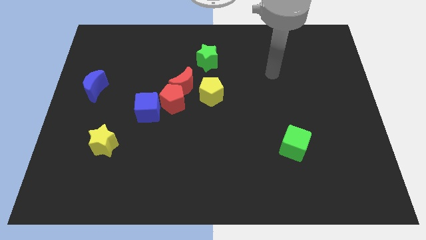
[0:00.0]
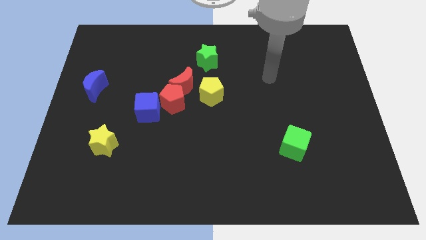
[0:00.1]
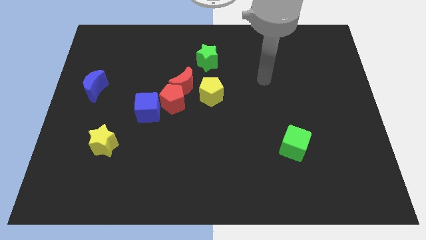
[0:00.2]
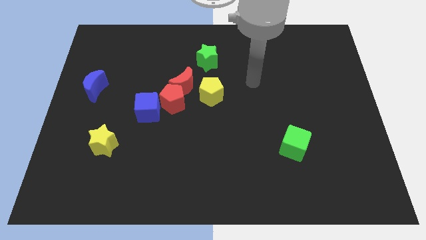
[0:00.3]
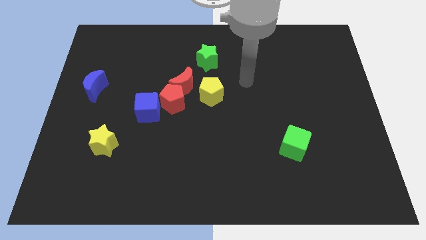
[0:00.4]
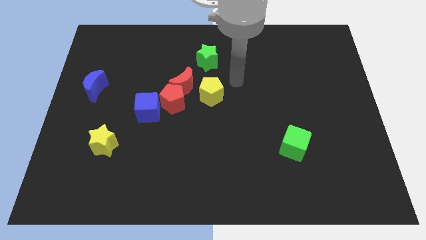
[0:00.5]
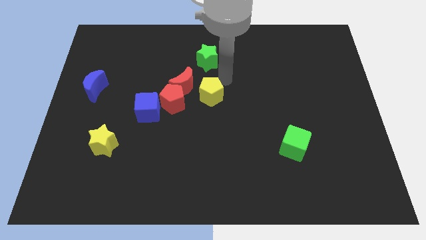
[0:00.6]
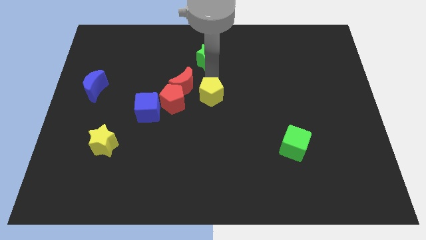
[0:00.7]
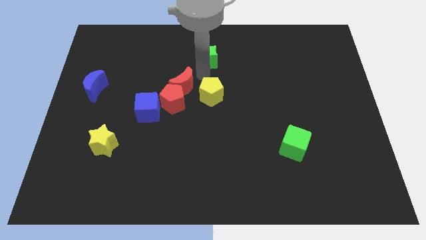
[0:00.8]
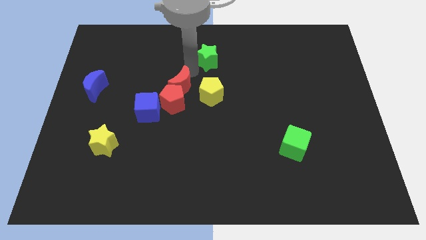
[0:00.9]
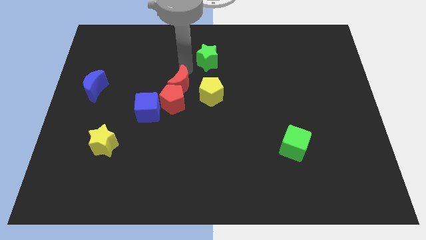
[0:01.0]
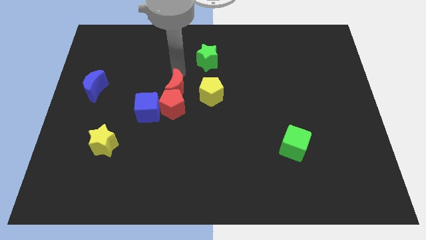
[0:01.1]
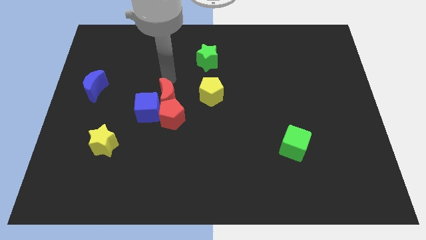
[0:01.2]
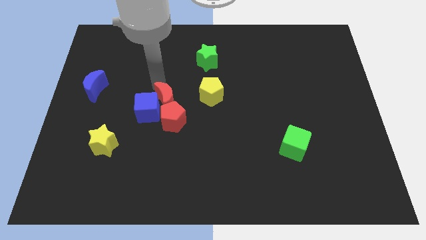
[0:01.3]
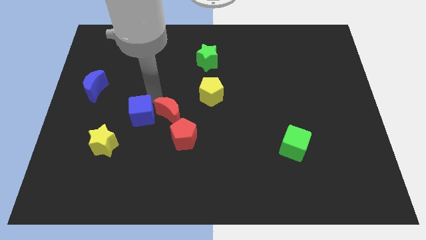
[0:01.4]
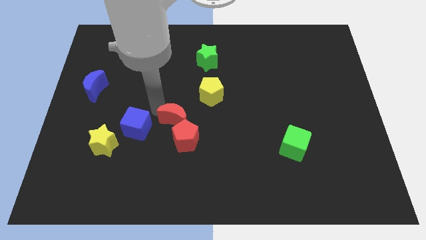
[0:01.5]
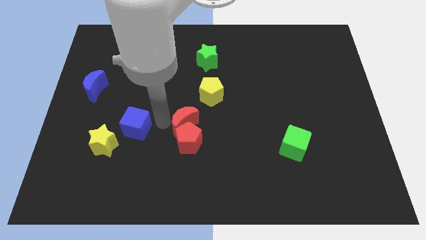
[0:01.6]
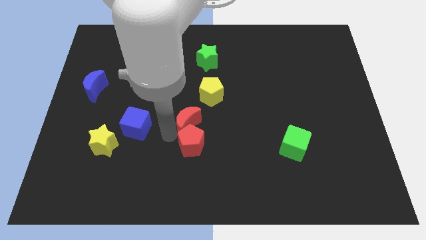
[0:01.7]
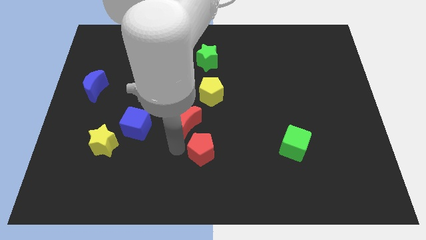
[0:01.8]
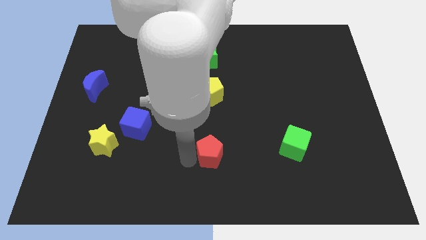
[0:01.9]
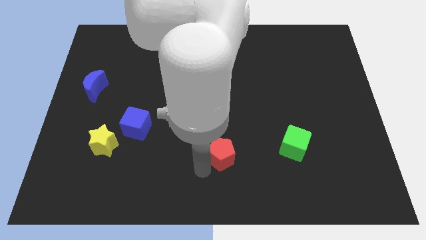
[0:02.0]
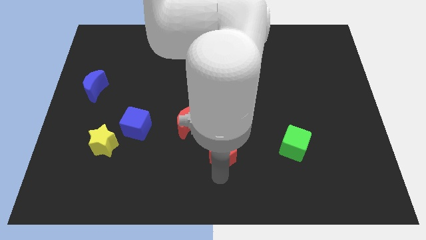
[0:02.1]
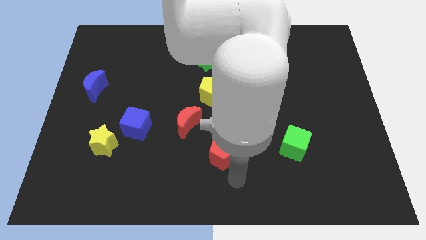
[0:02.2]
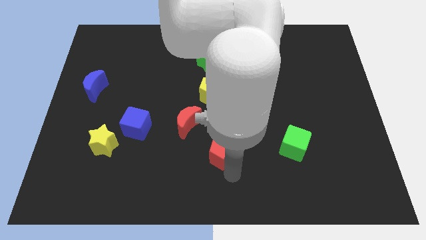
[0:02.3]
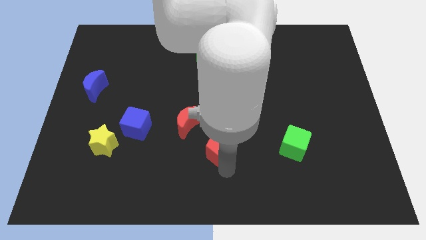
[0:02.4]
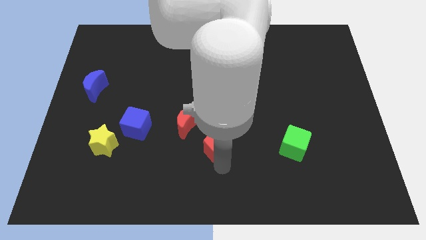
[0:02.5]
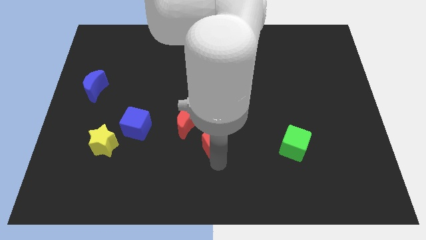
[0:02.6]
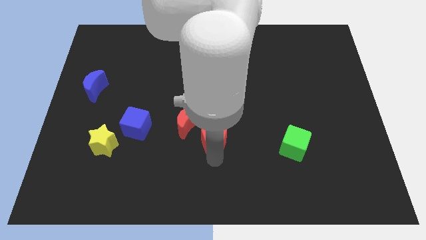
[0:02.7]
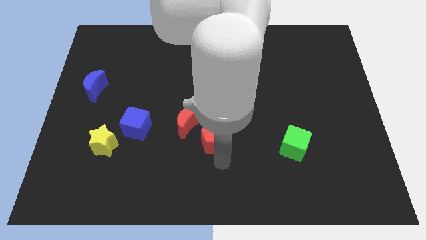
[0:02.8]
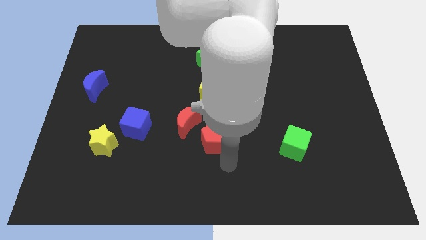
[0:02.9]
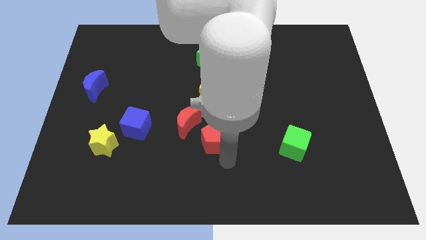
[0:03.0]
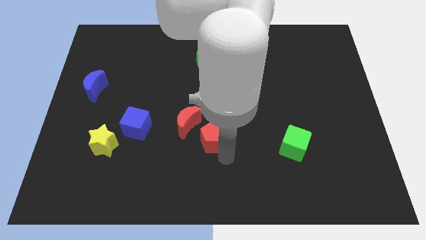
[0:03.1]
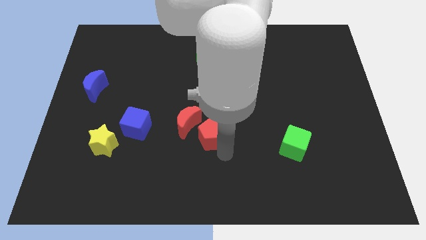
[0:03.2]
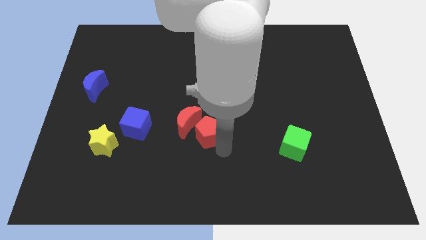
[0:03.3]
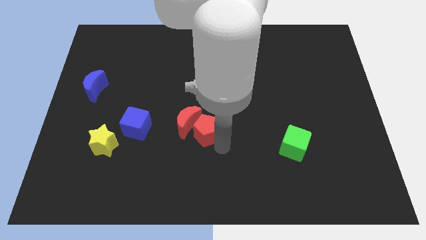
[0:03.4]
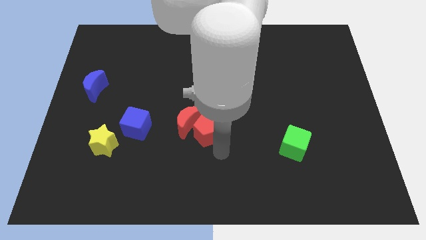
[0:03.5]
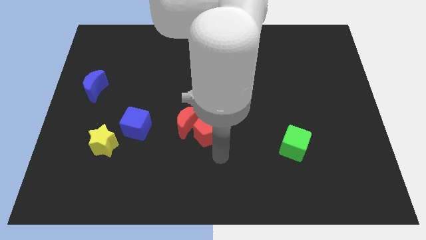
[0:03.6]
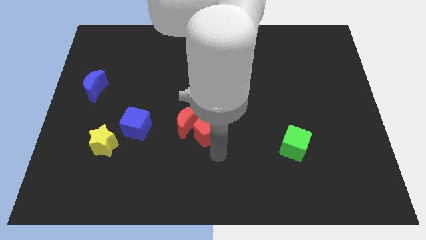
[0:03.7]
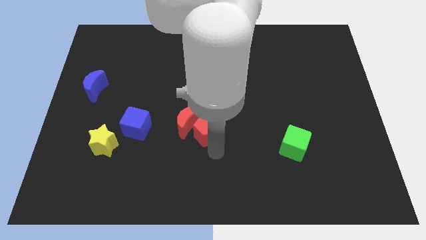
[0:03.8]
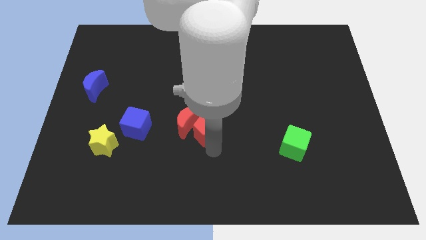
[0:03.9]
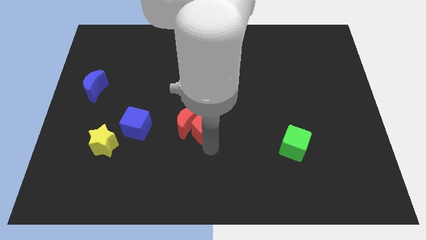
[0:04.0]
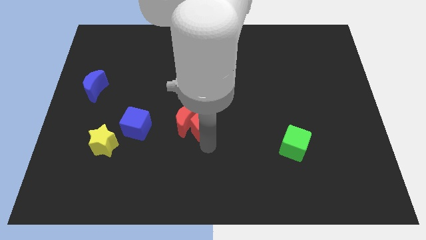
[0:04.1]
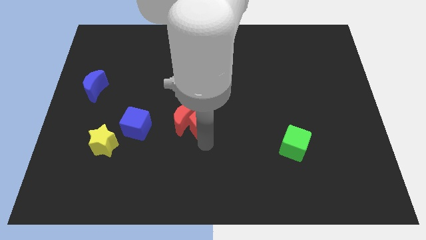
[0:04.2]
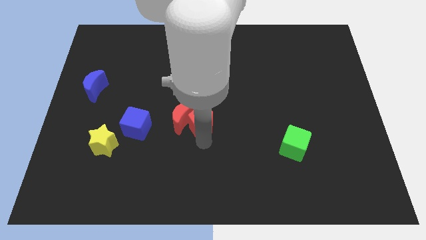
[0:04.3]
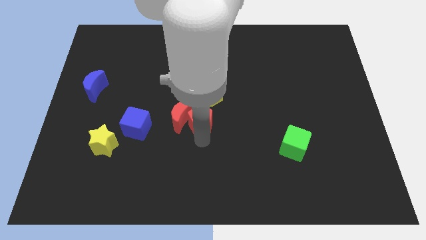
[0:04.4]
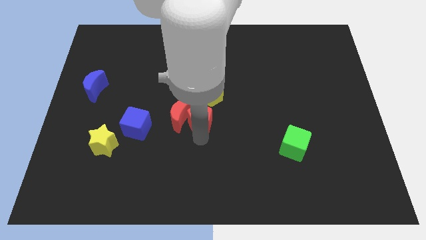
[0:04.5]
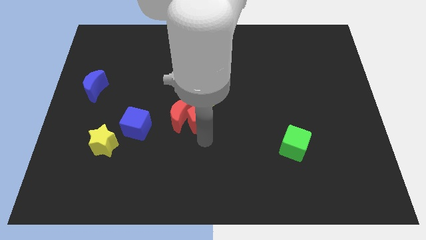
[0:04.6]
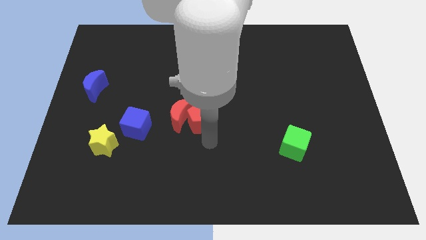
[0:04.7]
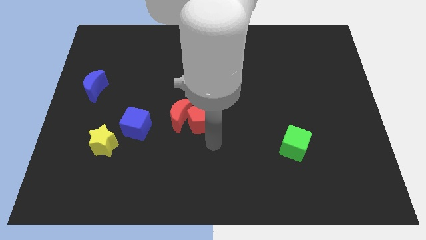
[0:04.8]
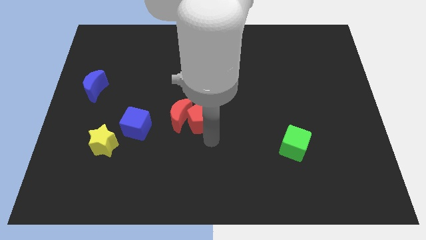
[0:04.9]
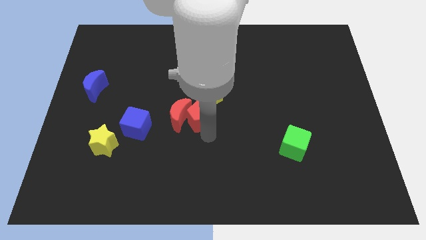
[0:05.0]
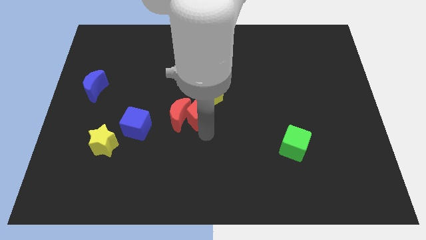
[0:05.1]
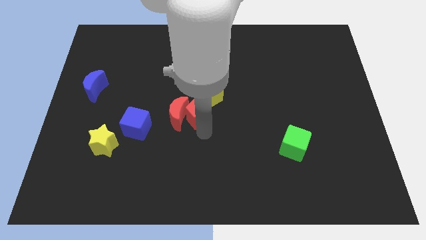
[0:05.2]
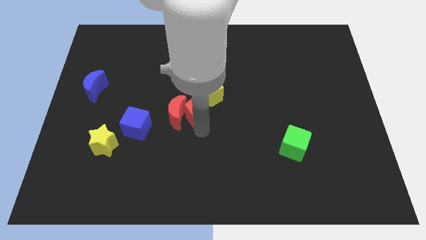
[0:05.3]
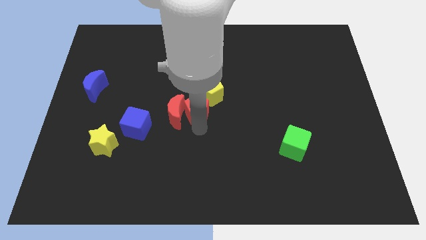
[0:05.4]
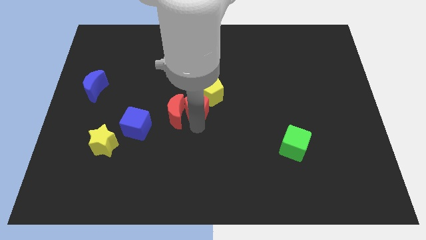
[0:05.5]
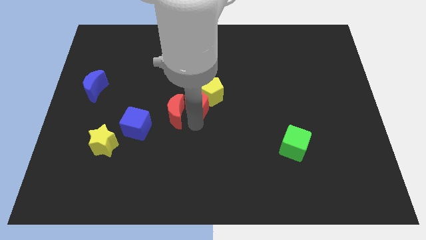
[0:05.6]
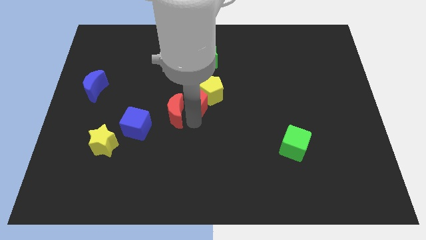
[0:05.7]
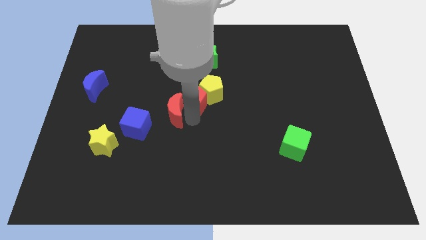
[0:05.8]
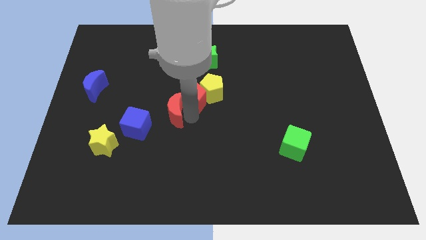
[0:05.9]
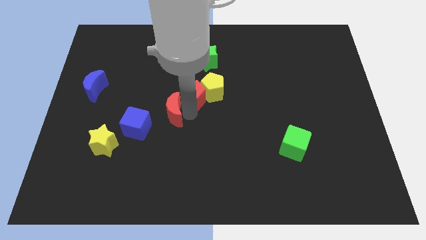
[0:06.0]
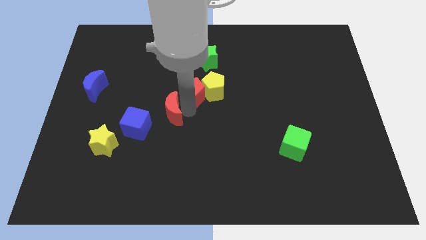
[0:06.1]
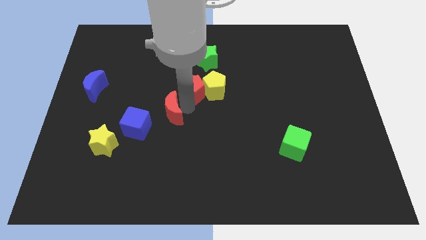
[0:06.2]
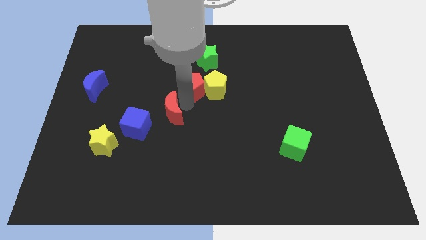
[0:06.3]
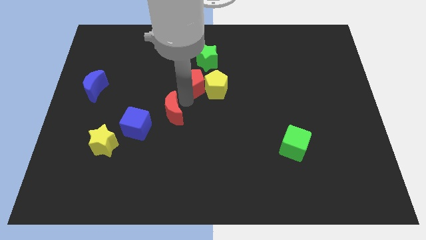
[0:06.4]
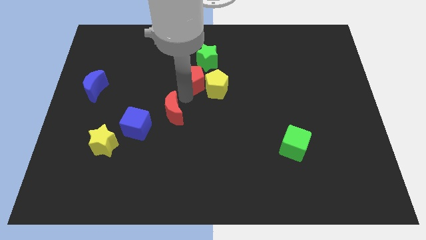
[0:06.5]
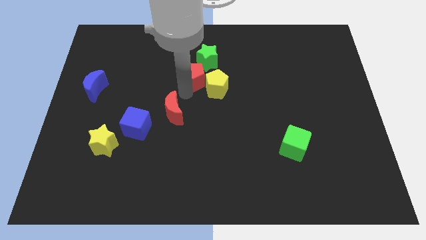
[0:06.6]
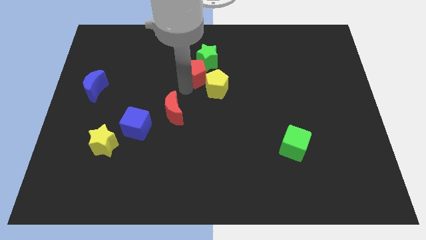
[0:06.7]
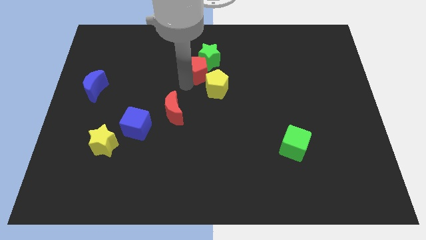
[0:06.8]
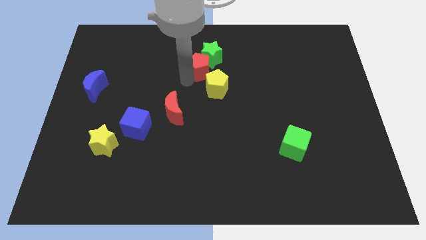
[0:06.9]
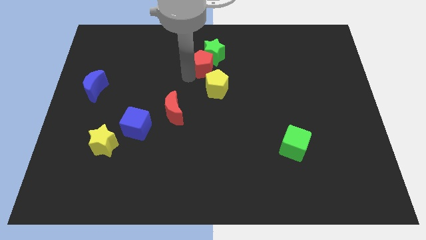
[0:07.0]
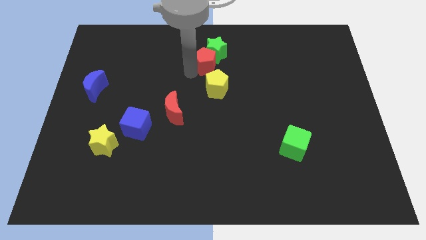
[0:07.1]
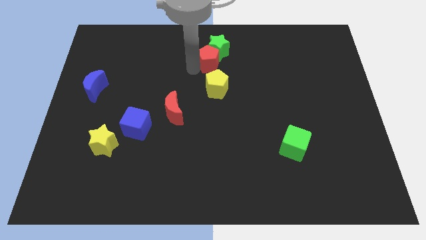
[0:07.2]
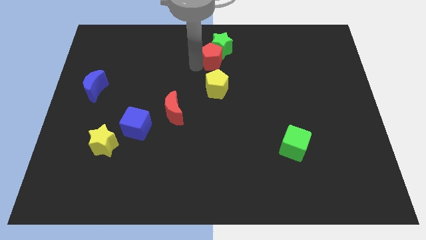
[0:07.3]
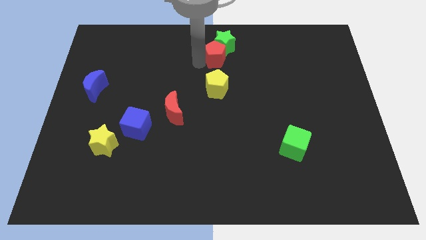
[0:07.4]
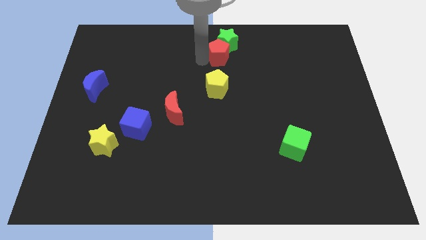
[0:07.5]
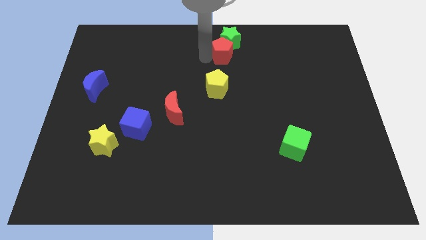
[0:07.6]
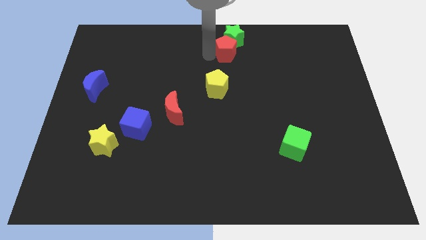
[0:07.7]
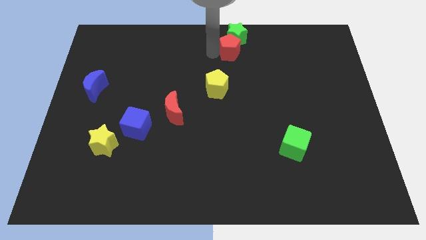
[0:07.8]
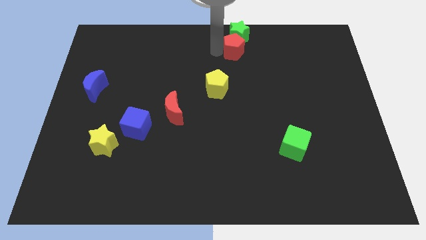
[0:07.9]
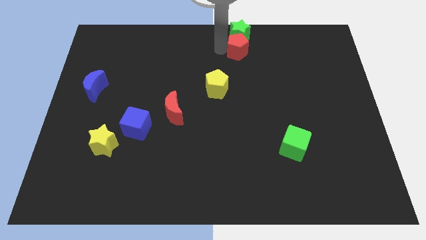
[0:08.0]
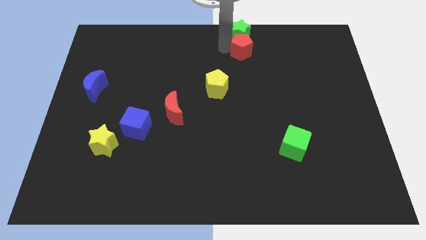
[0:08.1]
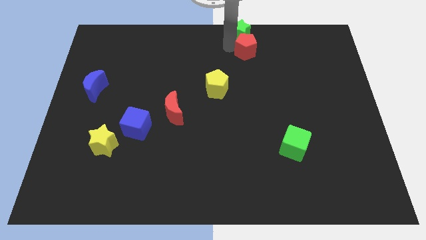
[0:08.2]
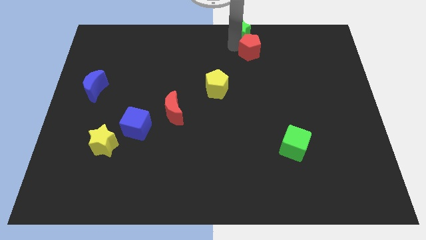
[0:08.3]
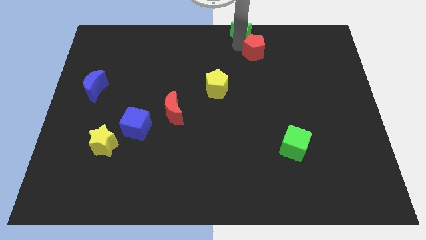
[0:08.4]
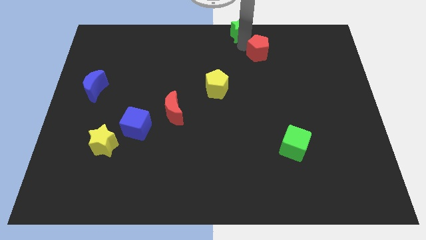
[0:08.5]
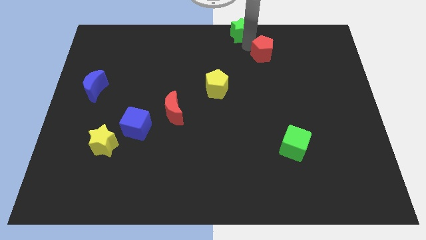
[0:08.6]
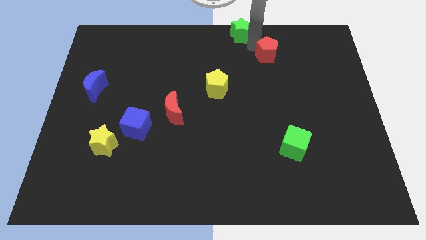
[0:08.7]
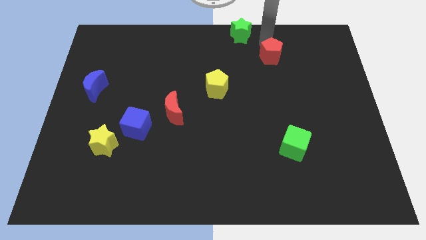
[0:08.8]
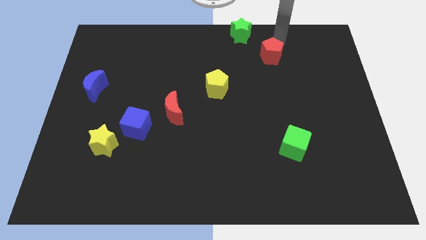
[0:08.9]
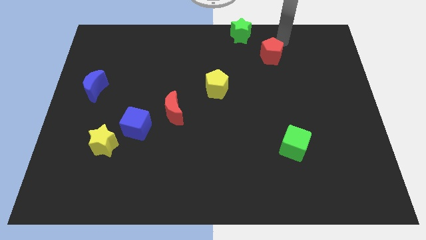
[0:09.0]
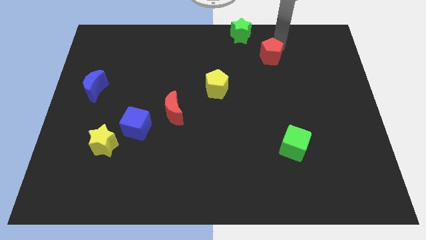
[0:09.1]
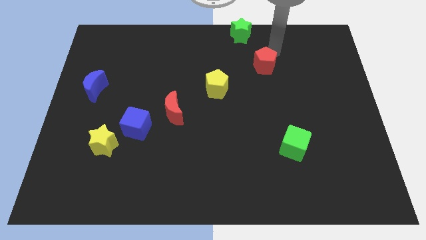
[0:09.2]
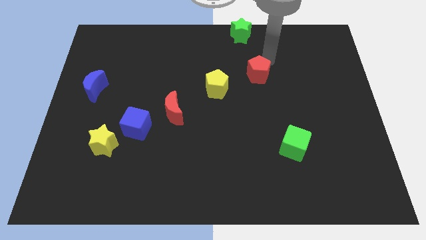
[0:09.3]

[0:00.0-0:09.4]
slightly slide the red pentagon right
